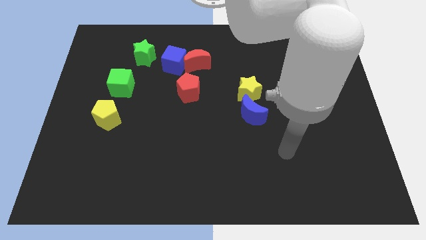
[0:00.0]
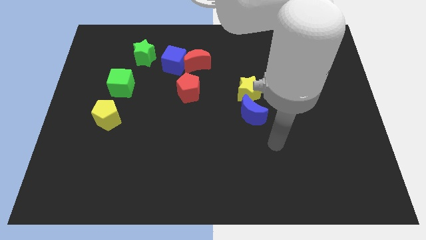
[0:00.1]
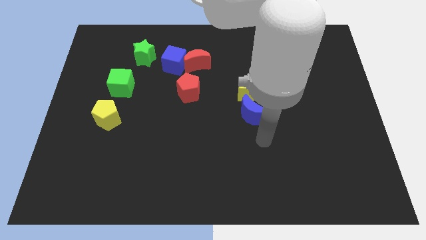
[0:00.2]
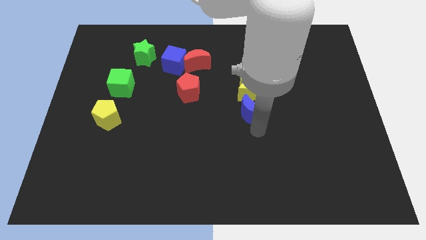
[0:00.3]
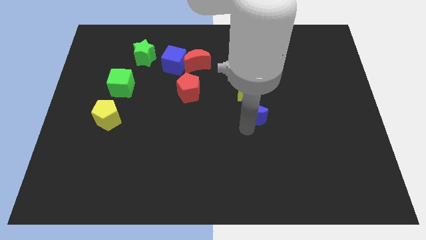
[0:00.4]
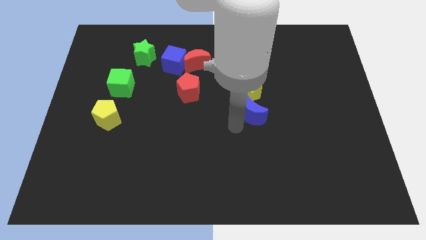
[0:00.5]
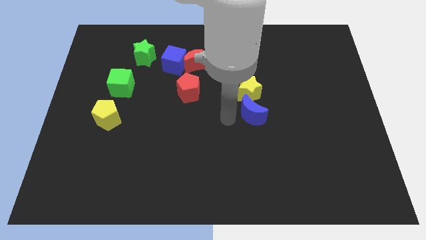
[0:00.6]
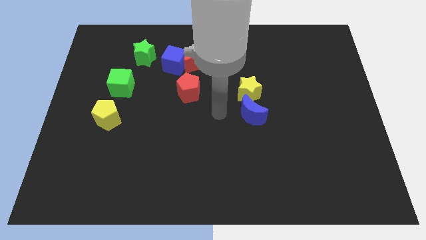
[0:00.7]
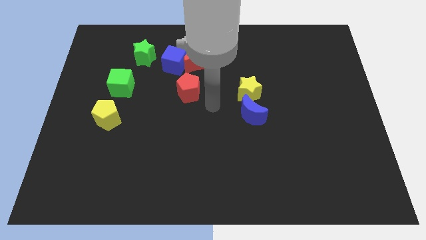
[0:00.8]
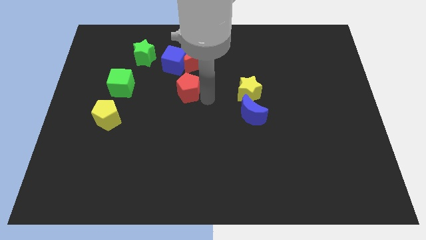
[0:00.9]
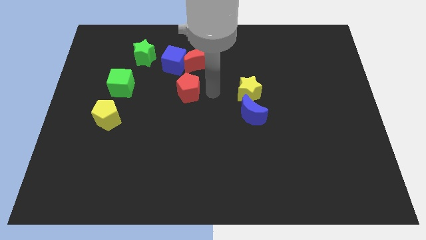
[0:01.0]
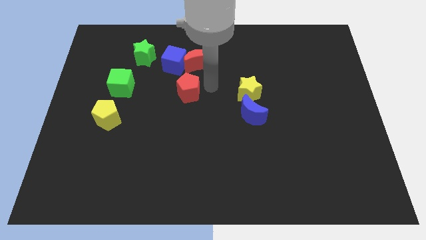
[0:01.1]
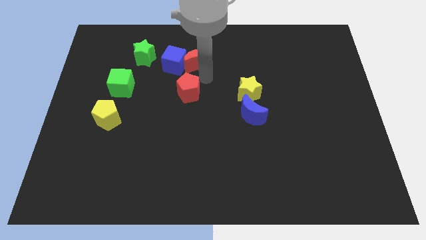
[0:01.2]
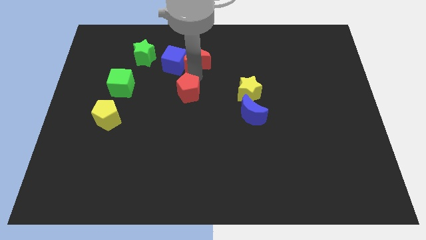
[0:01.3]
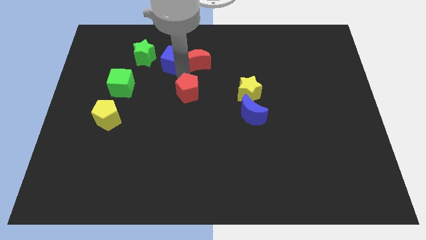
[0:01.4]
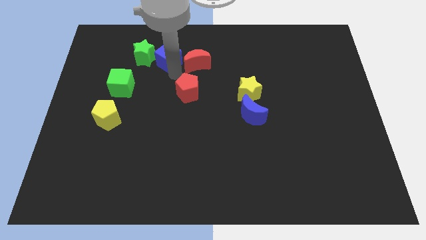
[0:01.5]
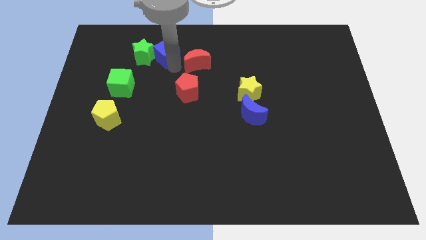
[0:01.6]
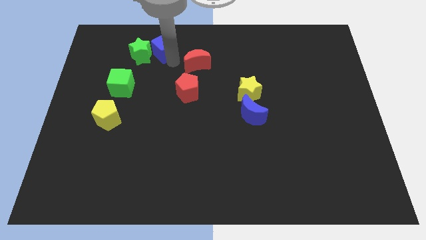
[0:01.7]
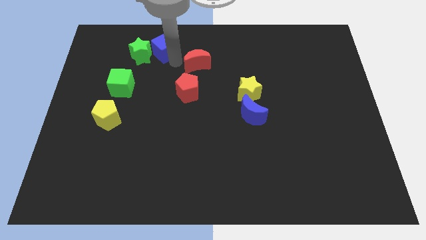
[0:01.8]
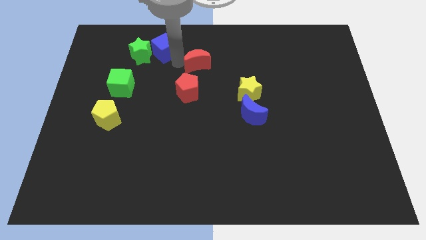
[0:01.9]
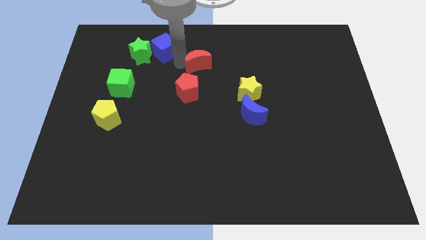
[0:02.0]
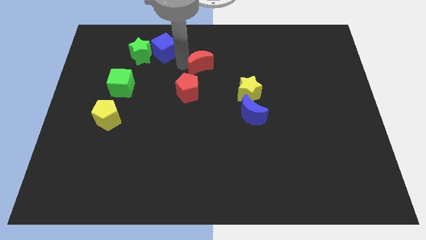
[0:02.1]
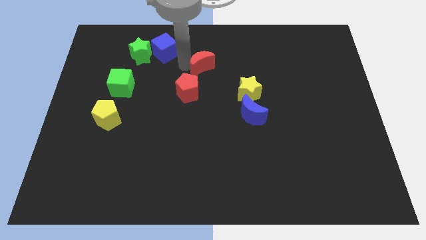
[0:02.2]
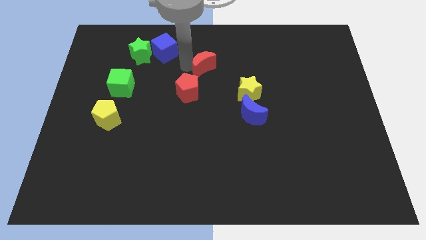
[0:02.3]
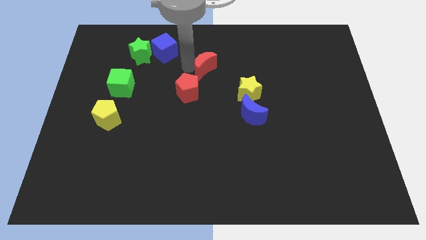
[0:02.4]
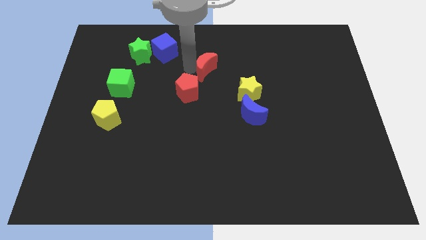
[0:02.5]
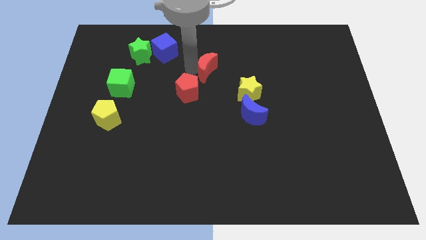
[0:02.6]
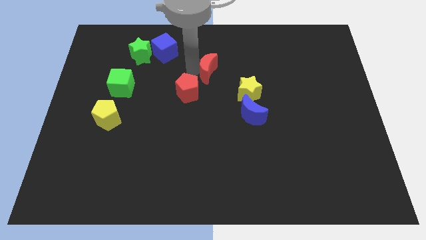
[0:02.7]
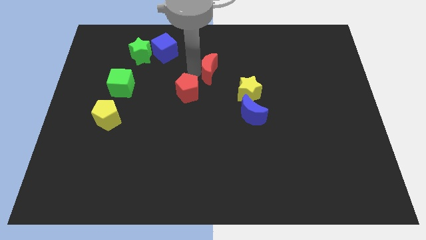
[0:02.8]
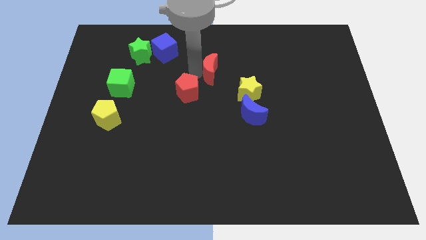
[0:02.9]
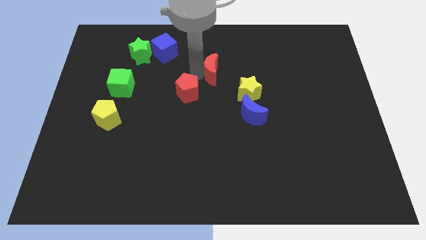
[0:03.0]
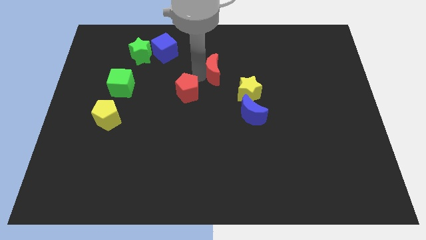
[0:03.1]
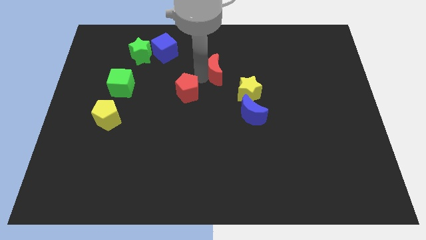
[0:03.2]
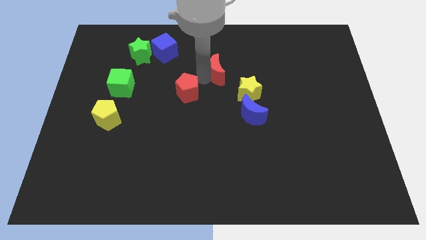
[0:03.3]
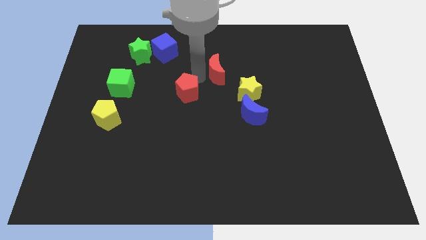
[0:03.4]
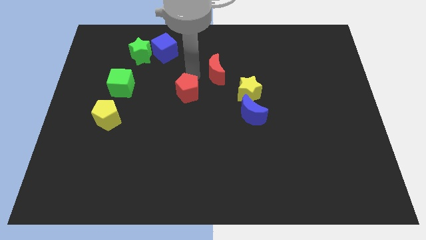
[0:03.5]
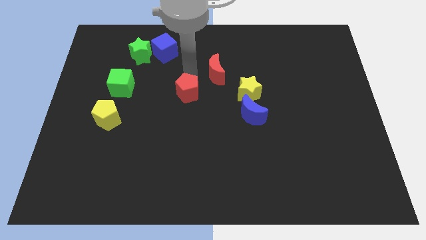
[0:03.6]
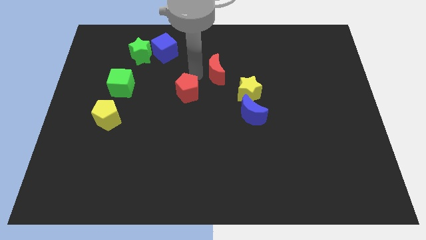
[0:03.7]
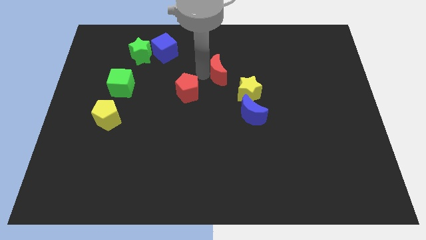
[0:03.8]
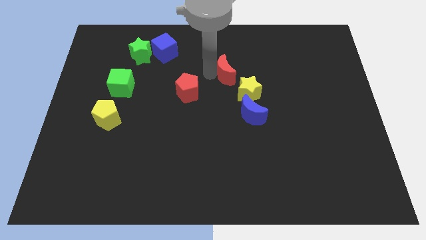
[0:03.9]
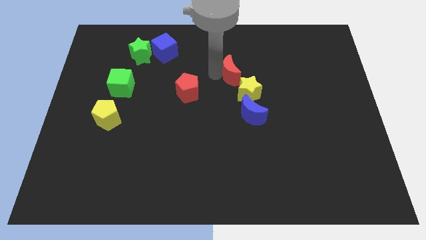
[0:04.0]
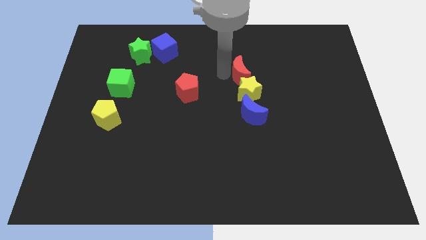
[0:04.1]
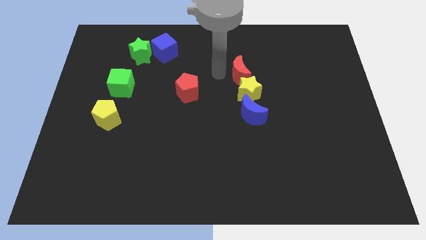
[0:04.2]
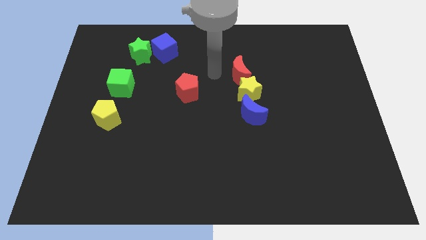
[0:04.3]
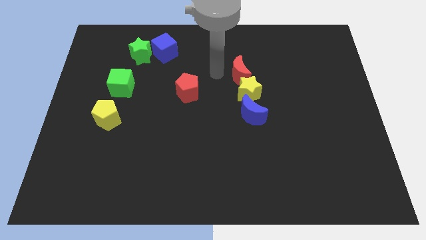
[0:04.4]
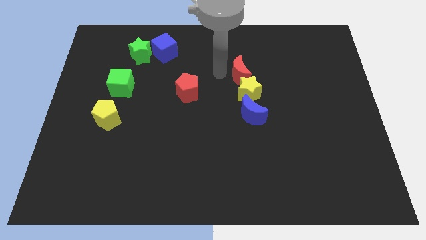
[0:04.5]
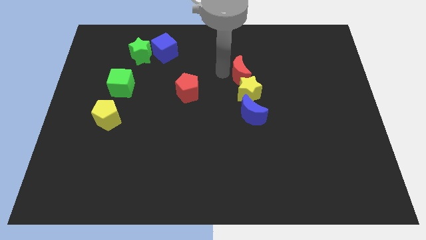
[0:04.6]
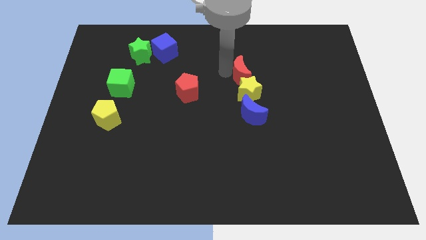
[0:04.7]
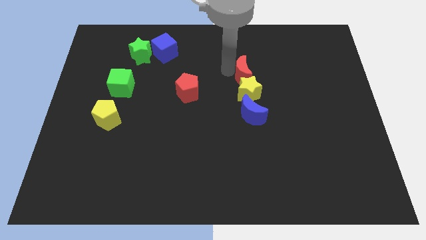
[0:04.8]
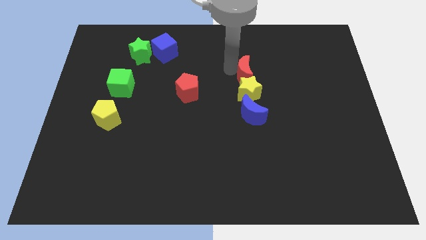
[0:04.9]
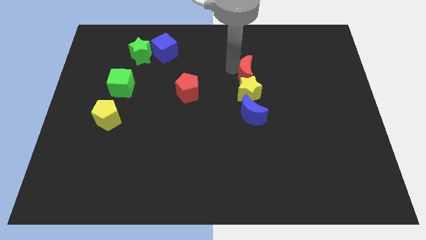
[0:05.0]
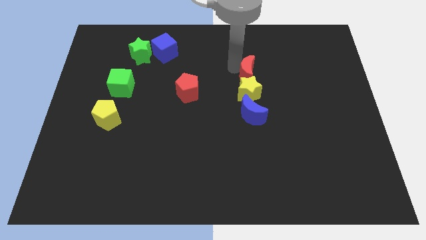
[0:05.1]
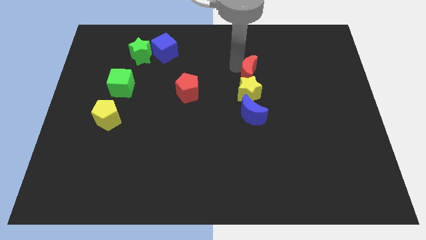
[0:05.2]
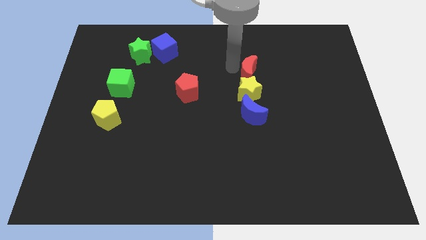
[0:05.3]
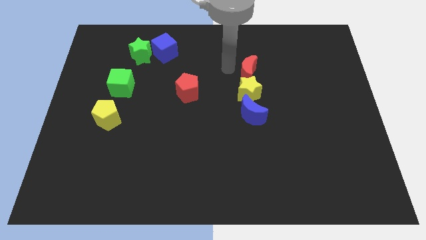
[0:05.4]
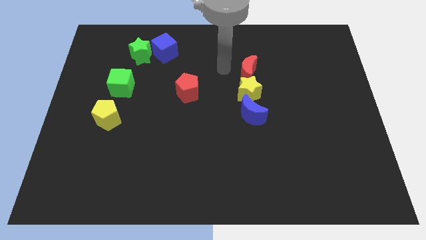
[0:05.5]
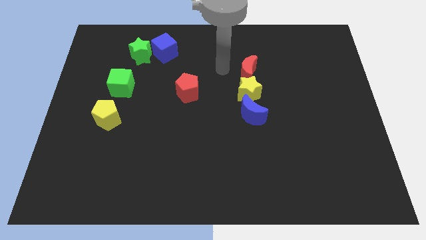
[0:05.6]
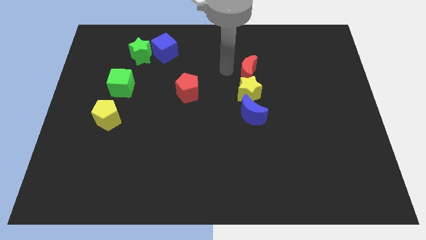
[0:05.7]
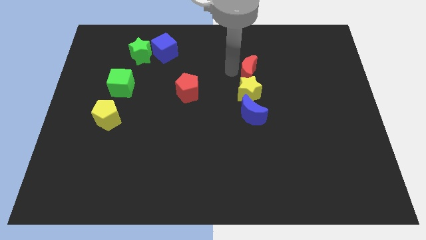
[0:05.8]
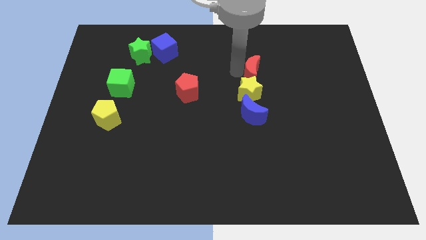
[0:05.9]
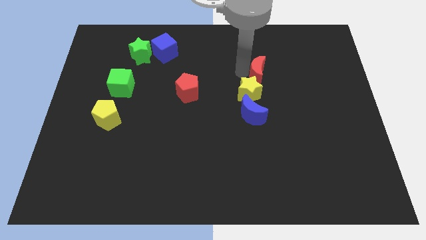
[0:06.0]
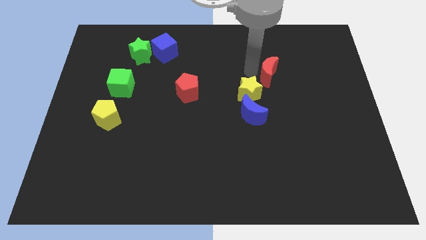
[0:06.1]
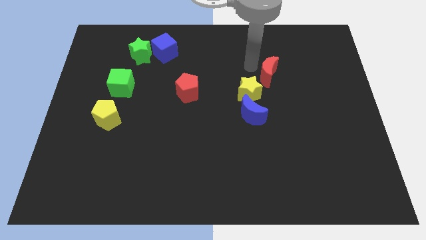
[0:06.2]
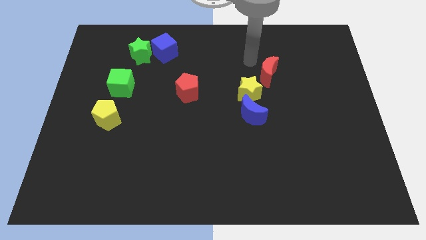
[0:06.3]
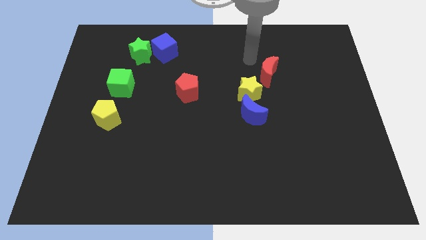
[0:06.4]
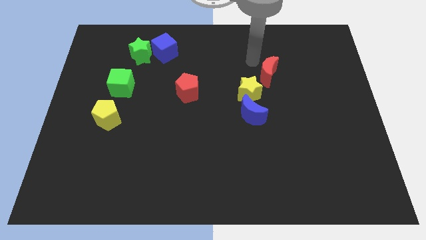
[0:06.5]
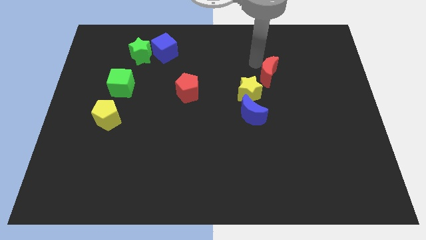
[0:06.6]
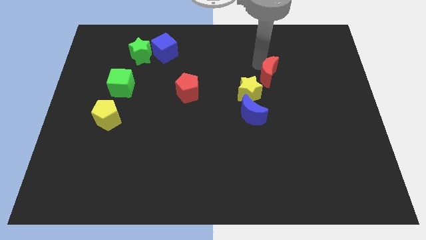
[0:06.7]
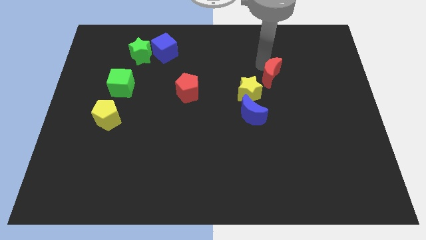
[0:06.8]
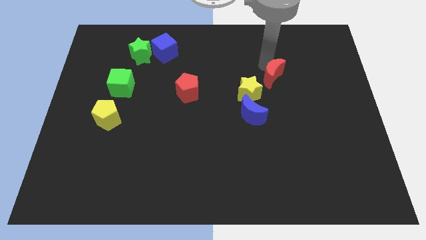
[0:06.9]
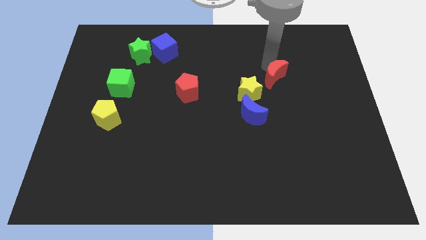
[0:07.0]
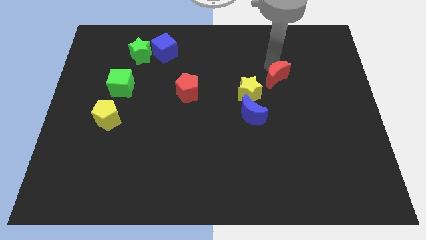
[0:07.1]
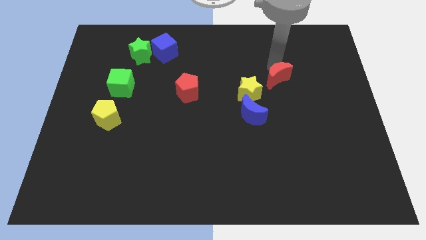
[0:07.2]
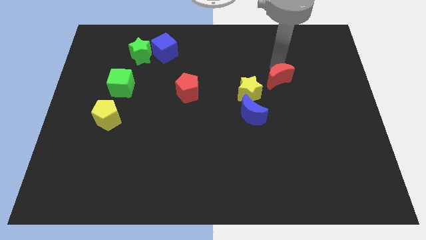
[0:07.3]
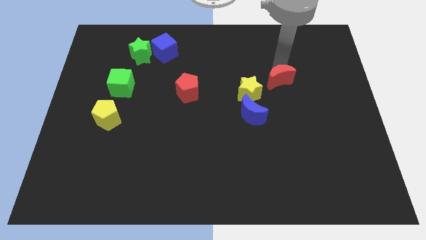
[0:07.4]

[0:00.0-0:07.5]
push the red moon to the right side of the yellow star
